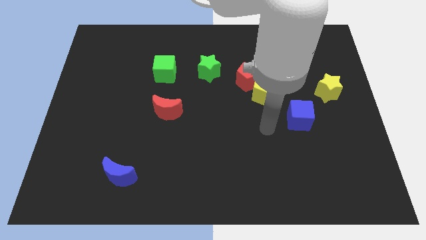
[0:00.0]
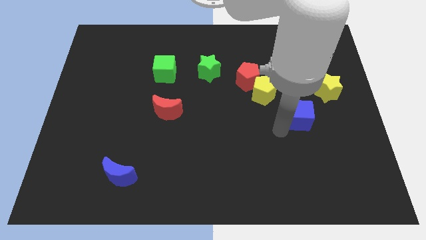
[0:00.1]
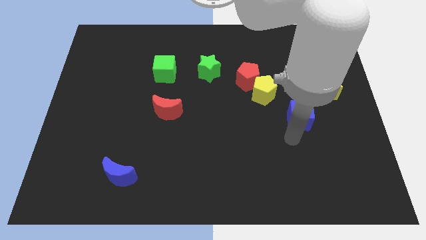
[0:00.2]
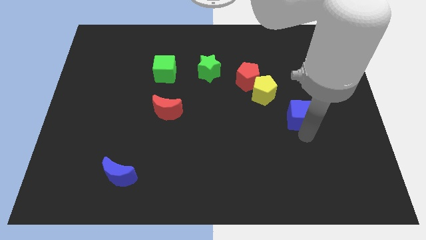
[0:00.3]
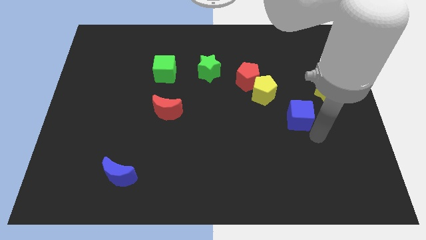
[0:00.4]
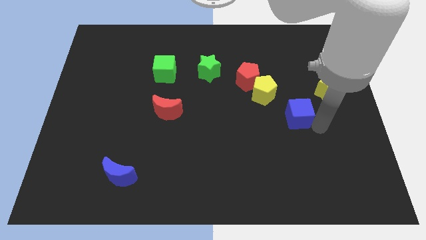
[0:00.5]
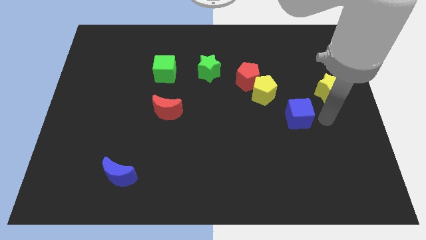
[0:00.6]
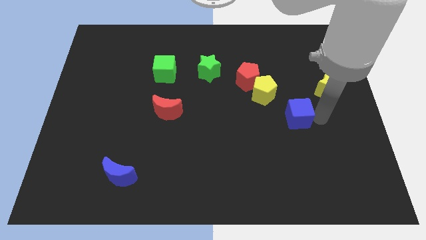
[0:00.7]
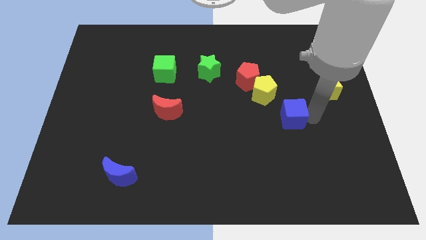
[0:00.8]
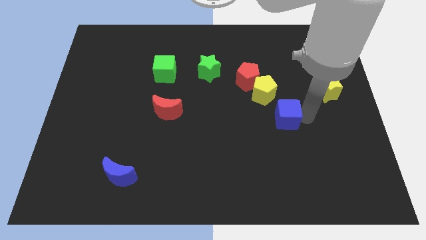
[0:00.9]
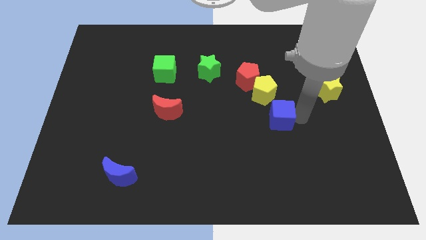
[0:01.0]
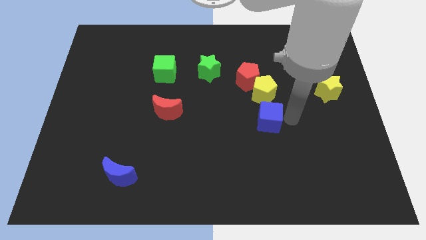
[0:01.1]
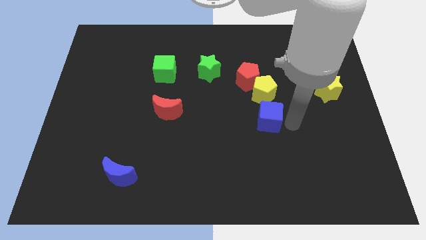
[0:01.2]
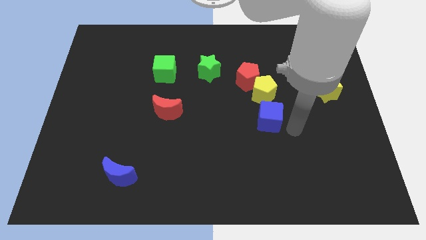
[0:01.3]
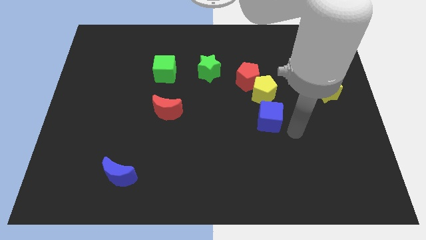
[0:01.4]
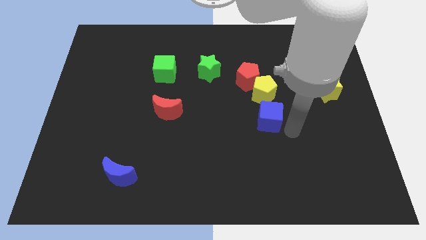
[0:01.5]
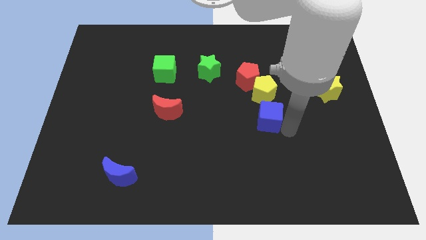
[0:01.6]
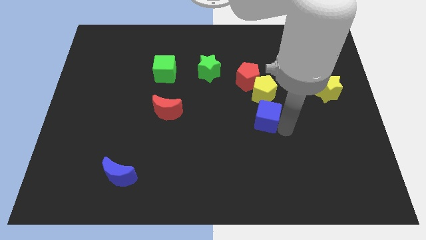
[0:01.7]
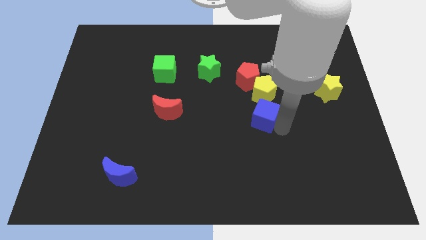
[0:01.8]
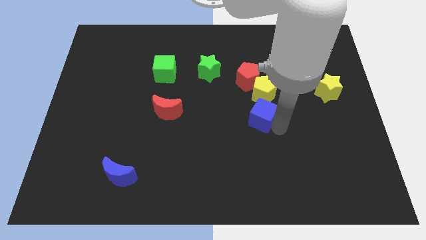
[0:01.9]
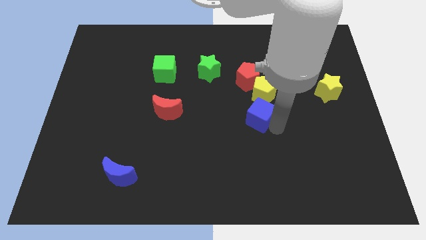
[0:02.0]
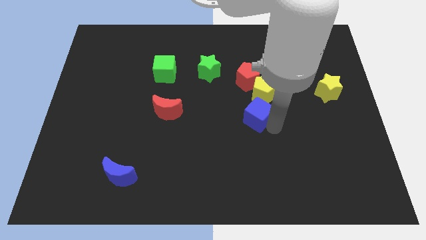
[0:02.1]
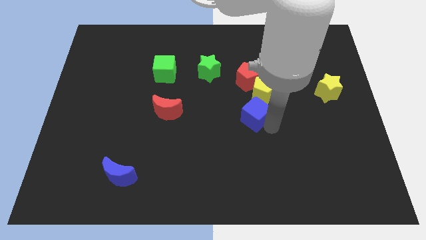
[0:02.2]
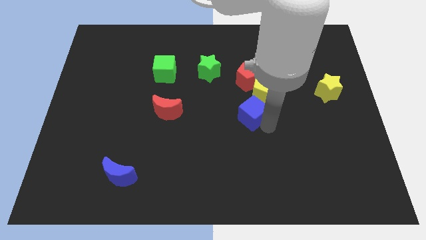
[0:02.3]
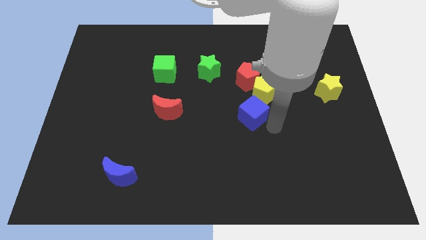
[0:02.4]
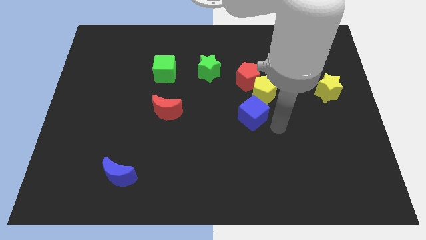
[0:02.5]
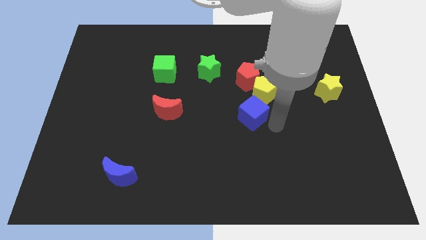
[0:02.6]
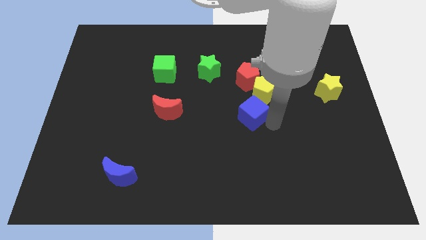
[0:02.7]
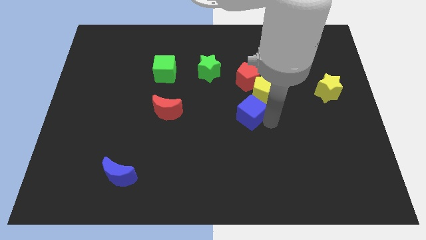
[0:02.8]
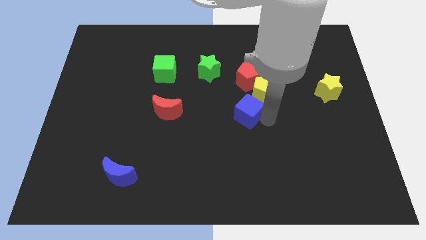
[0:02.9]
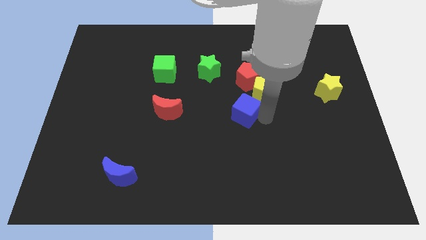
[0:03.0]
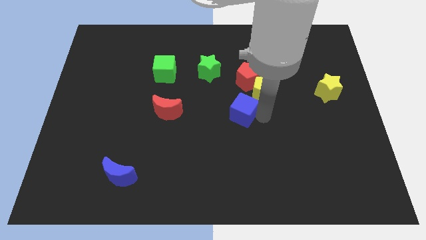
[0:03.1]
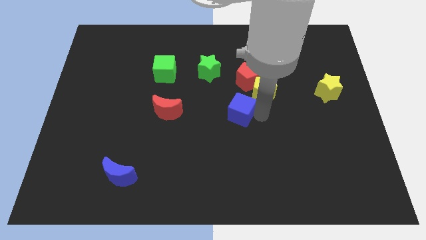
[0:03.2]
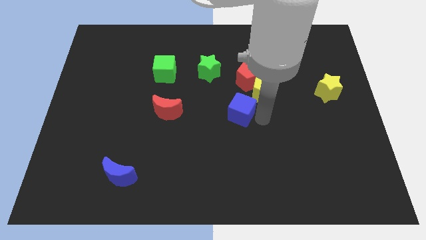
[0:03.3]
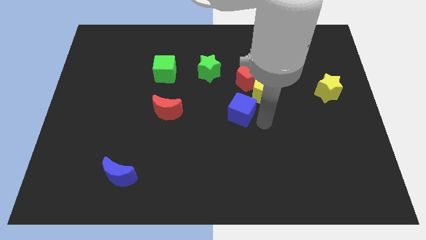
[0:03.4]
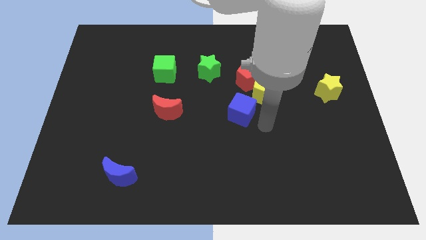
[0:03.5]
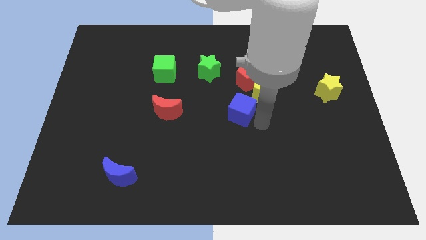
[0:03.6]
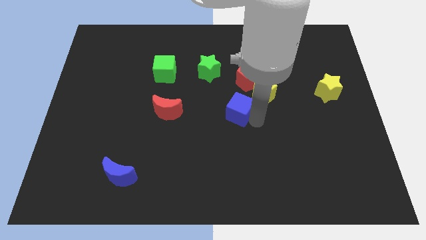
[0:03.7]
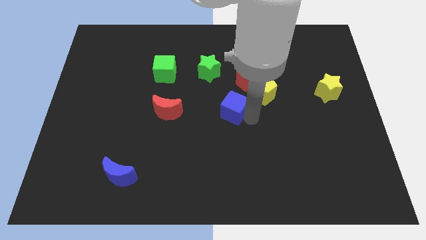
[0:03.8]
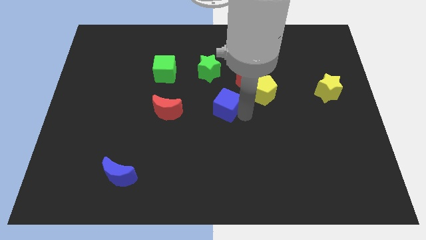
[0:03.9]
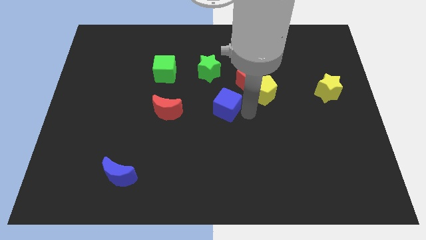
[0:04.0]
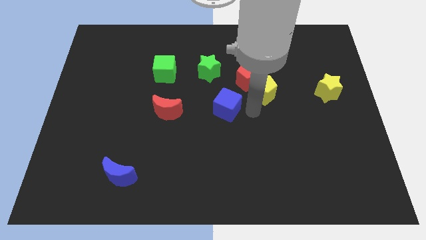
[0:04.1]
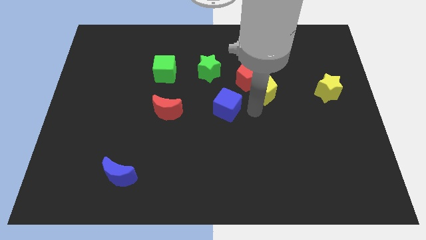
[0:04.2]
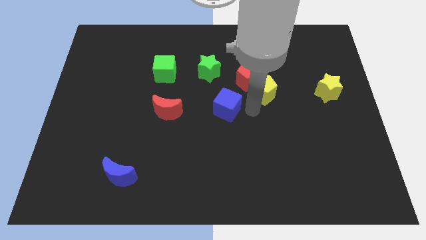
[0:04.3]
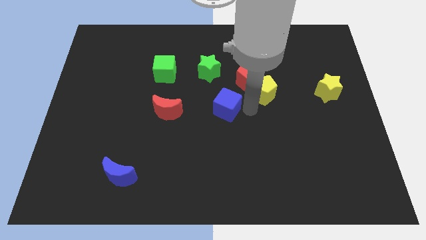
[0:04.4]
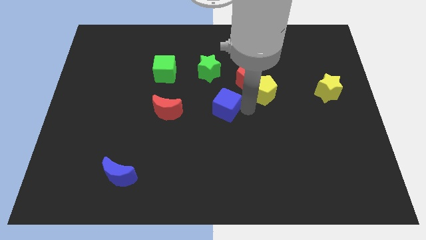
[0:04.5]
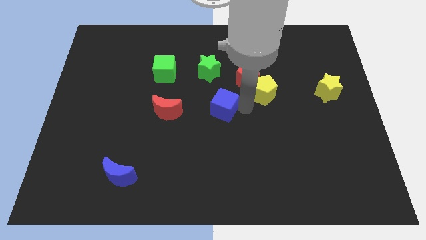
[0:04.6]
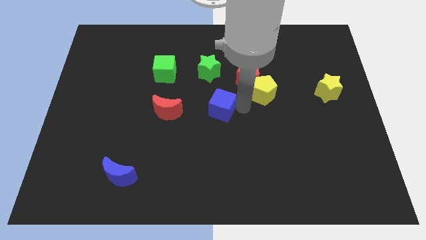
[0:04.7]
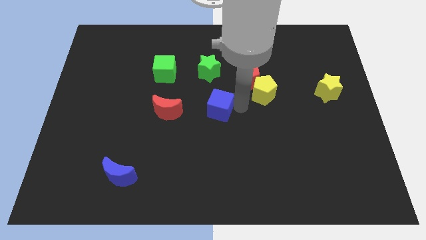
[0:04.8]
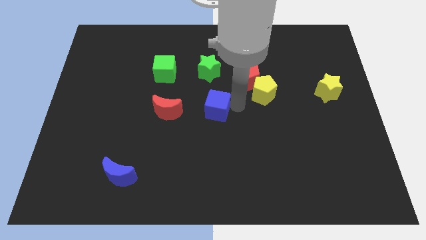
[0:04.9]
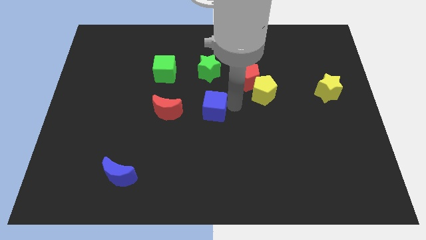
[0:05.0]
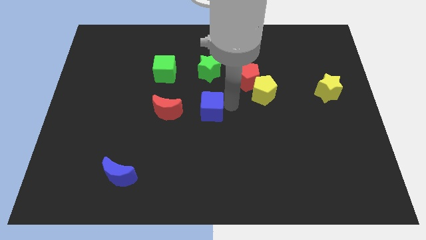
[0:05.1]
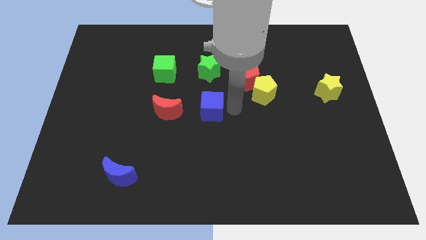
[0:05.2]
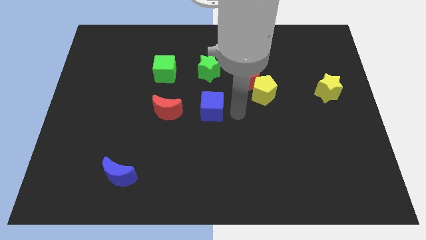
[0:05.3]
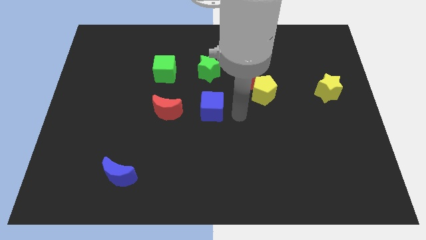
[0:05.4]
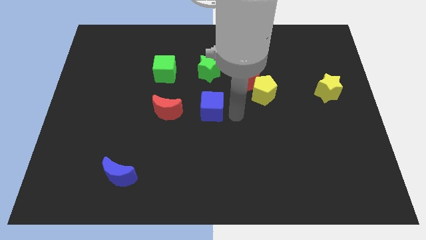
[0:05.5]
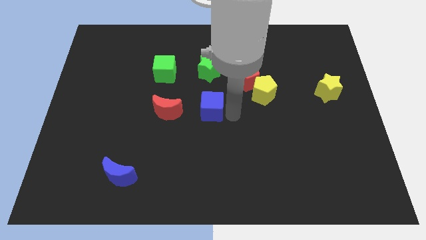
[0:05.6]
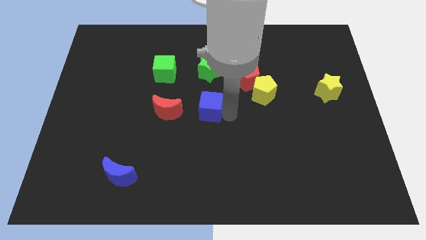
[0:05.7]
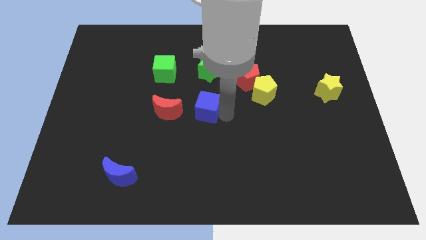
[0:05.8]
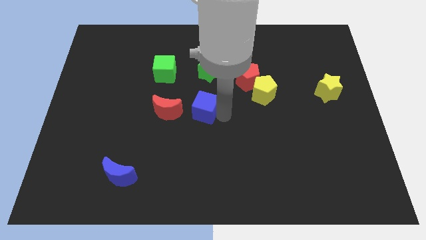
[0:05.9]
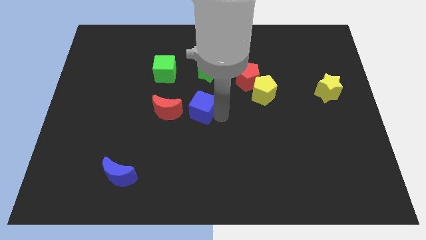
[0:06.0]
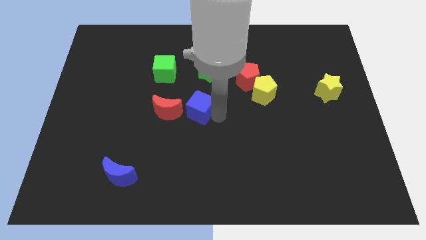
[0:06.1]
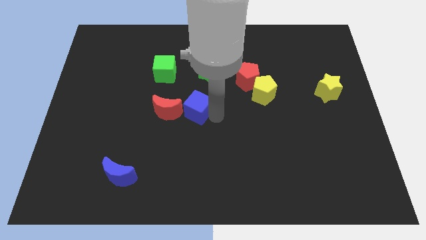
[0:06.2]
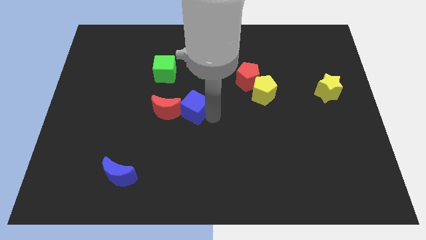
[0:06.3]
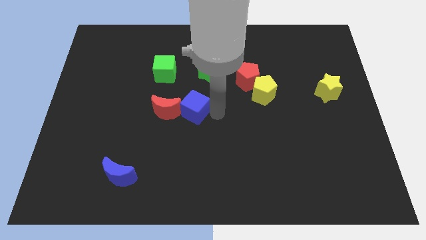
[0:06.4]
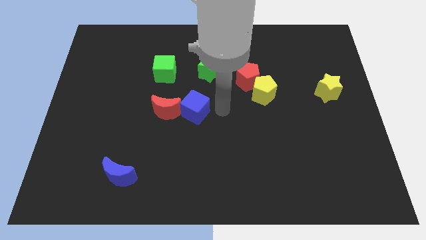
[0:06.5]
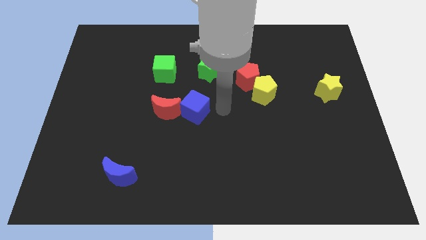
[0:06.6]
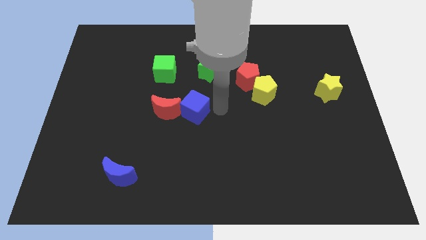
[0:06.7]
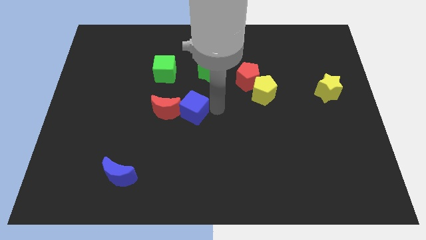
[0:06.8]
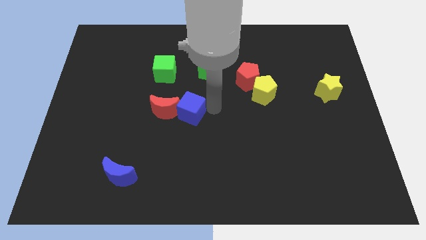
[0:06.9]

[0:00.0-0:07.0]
move the blue cube to the red moon

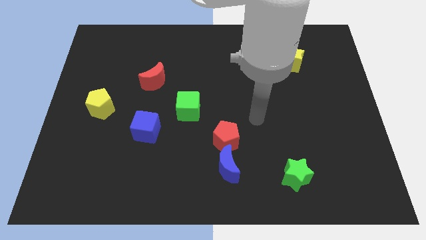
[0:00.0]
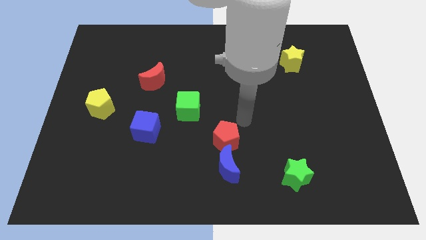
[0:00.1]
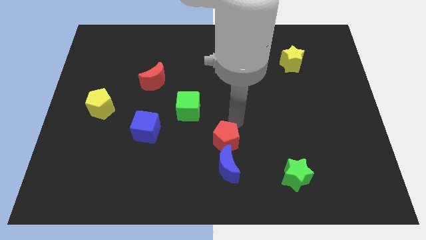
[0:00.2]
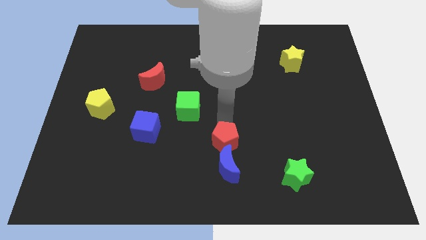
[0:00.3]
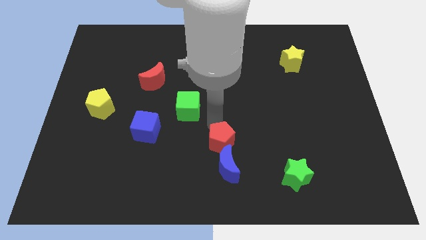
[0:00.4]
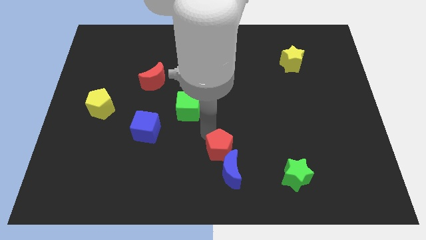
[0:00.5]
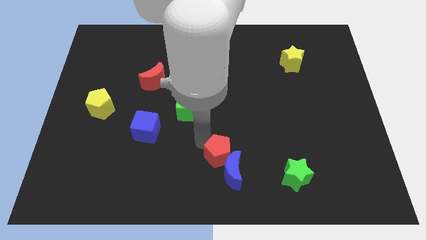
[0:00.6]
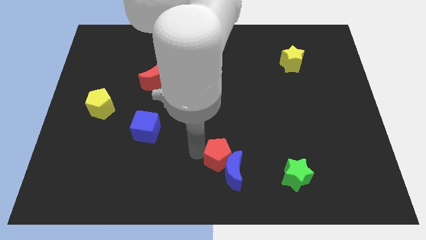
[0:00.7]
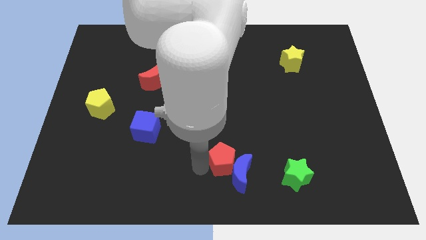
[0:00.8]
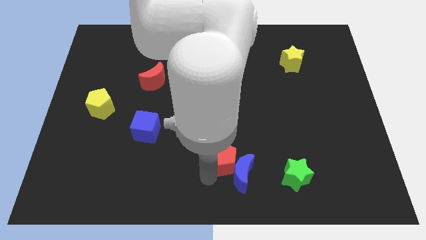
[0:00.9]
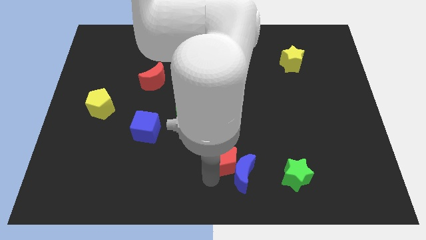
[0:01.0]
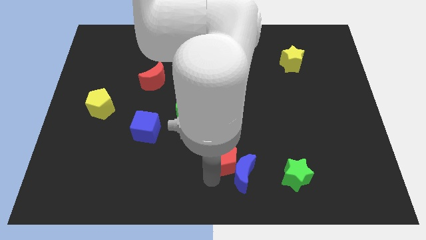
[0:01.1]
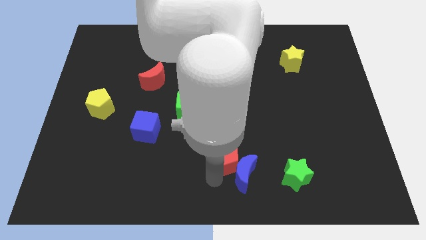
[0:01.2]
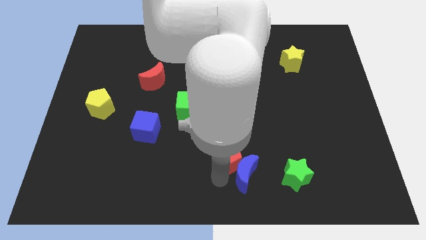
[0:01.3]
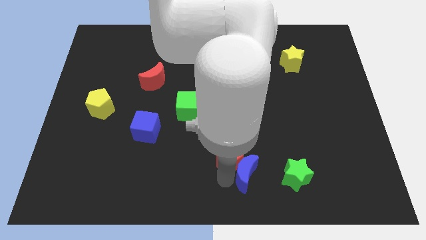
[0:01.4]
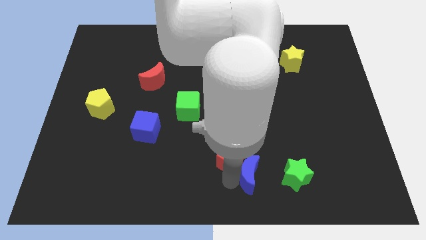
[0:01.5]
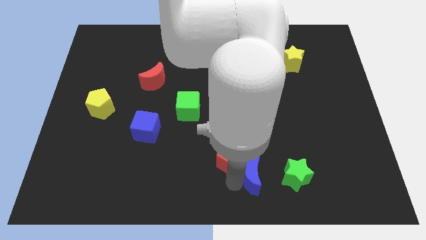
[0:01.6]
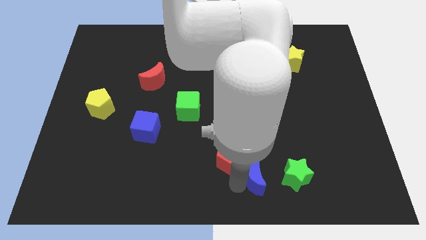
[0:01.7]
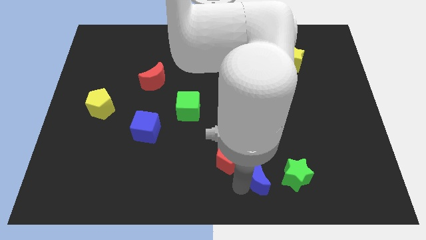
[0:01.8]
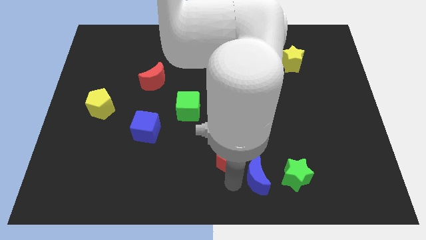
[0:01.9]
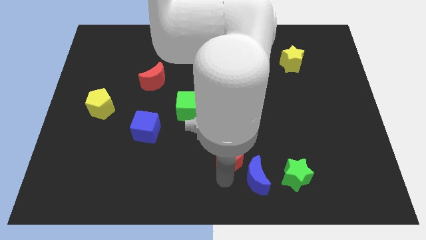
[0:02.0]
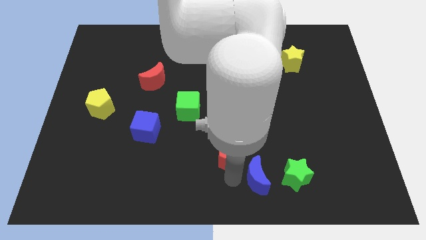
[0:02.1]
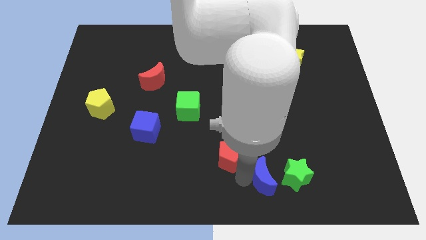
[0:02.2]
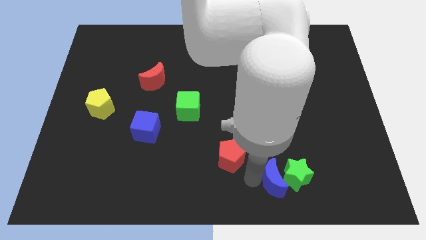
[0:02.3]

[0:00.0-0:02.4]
move the blue moon next to the green star
